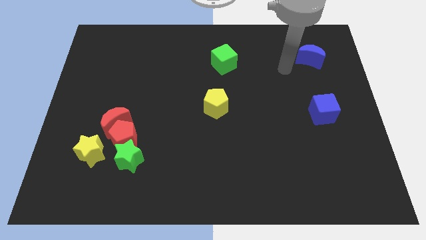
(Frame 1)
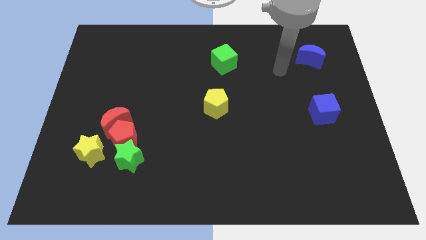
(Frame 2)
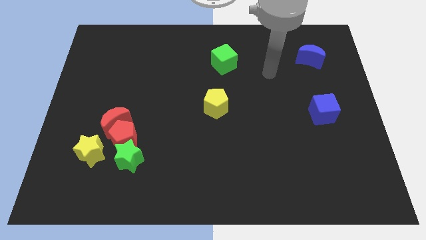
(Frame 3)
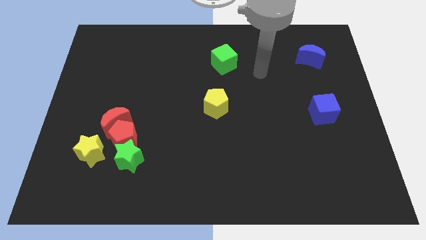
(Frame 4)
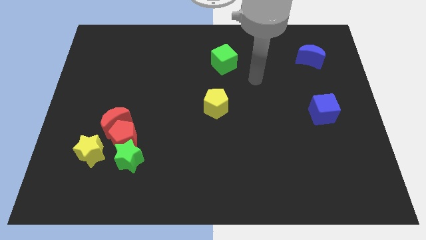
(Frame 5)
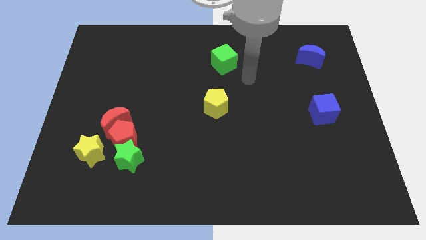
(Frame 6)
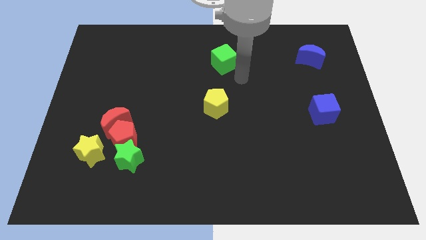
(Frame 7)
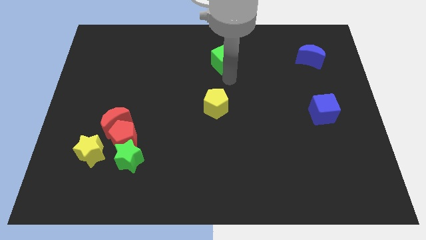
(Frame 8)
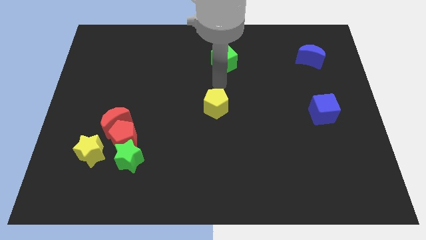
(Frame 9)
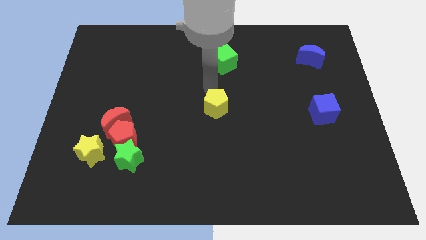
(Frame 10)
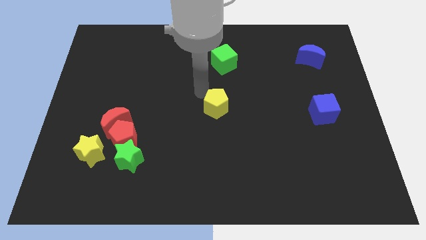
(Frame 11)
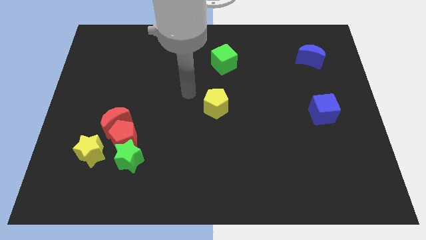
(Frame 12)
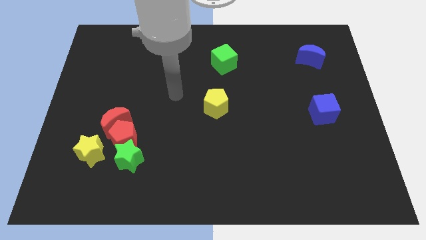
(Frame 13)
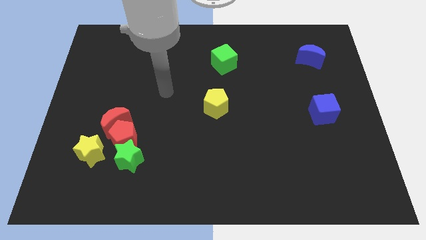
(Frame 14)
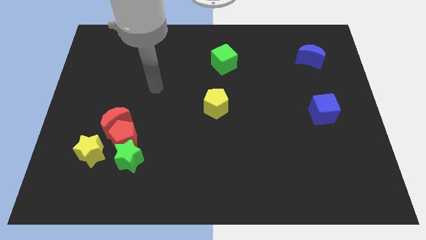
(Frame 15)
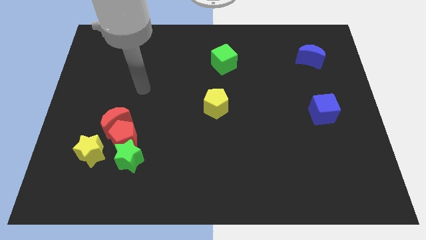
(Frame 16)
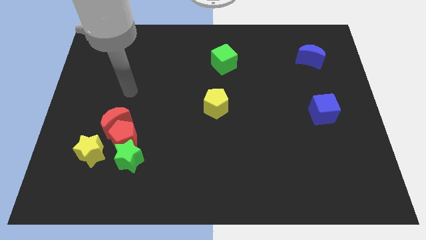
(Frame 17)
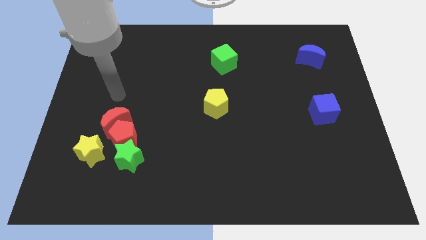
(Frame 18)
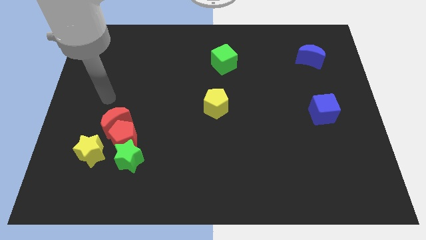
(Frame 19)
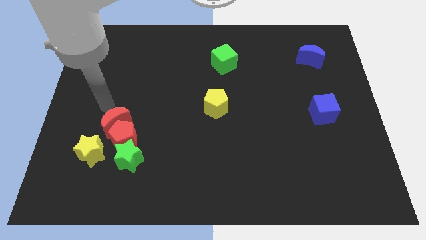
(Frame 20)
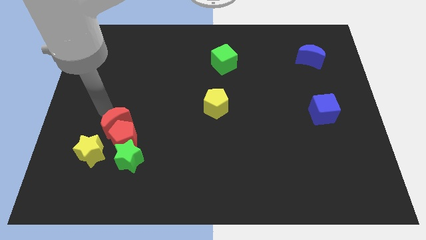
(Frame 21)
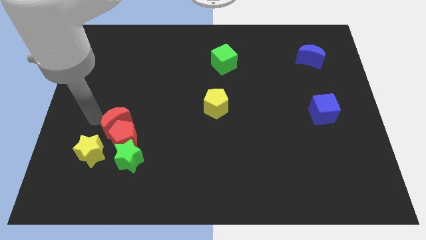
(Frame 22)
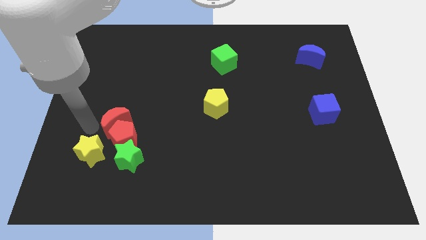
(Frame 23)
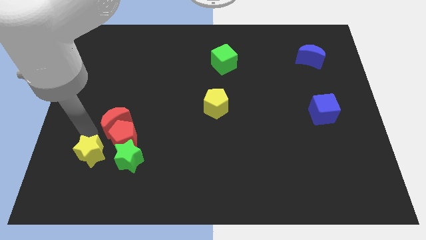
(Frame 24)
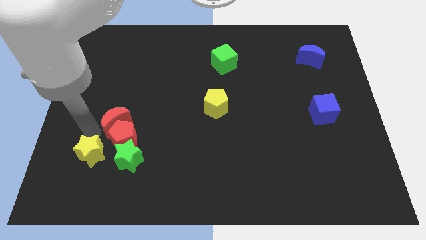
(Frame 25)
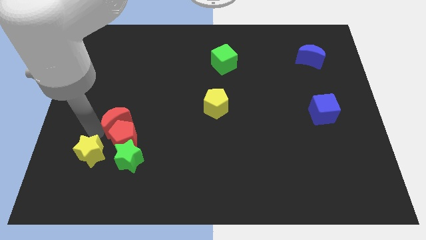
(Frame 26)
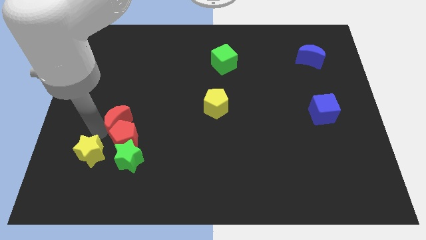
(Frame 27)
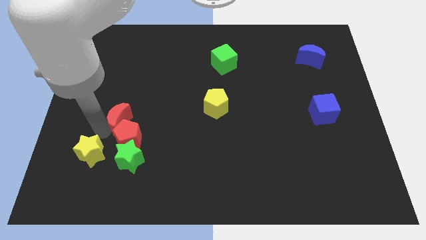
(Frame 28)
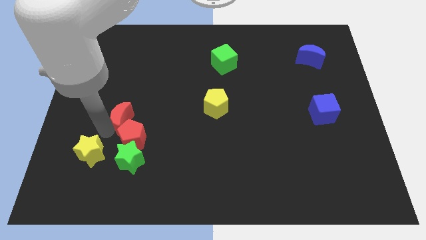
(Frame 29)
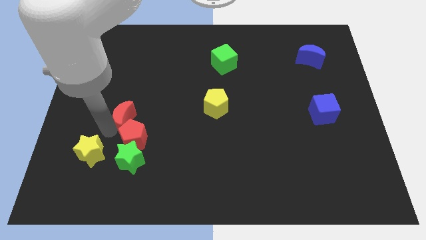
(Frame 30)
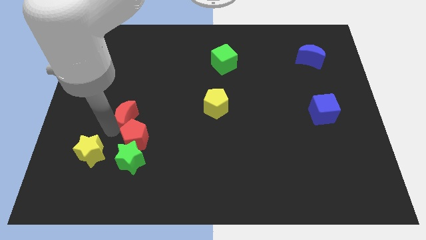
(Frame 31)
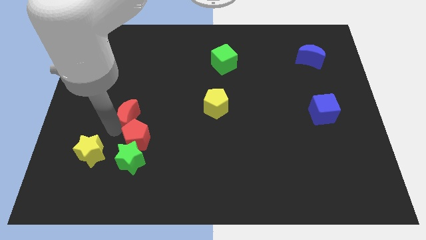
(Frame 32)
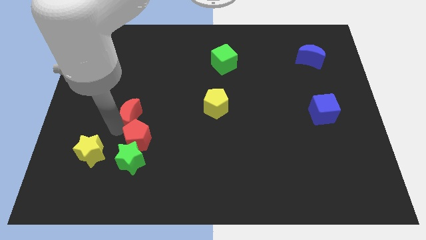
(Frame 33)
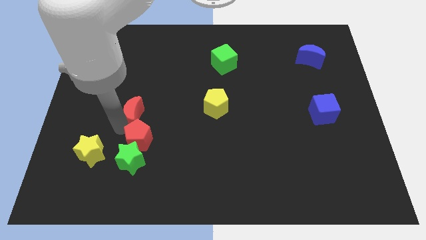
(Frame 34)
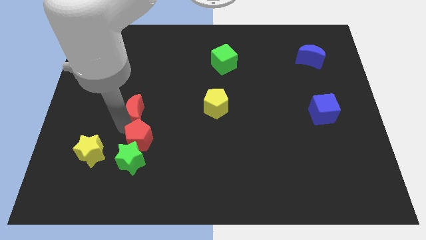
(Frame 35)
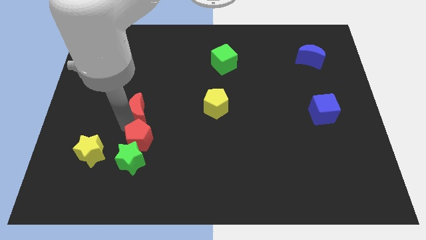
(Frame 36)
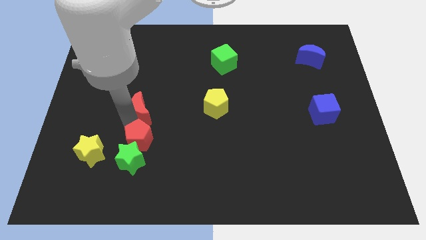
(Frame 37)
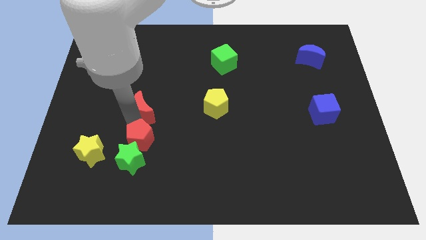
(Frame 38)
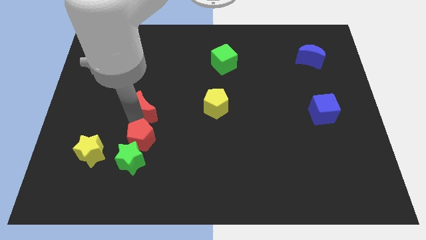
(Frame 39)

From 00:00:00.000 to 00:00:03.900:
move the red moon up and then right somewhat

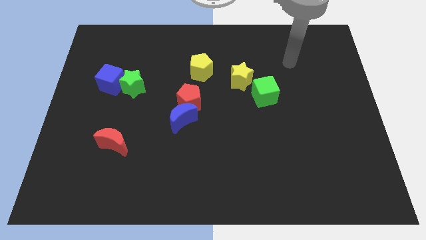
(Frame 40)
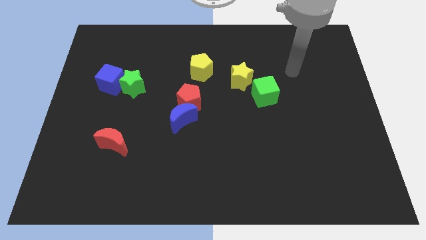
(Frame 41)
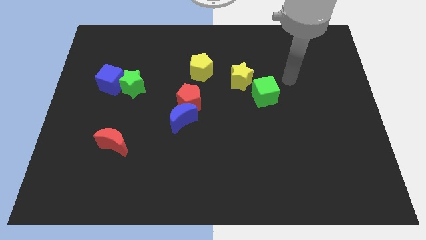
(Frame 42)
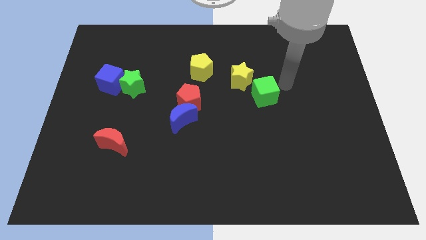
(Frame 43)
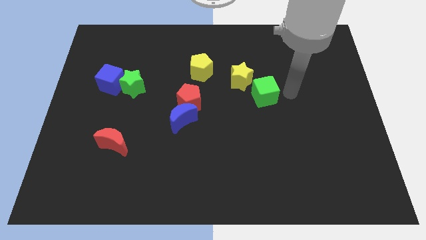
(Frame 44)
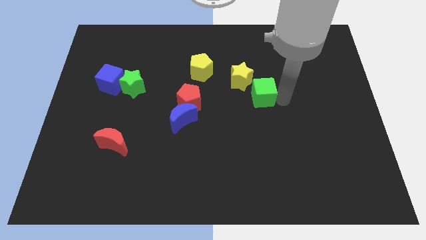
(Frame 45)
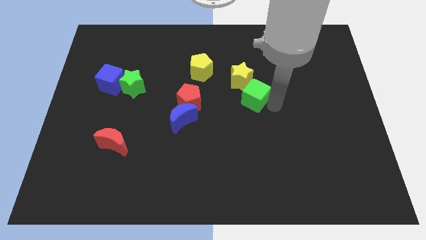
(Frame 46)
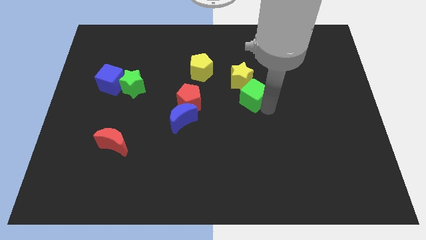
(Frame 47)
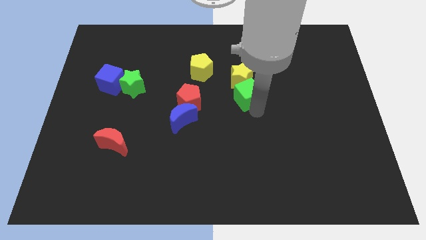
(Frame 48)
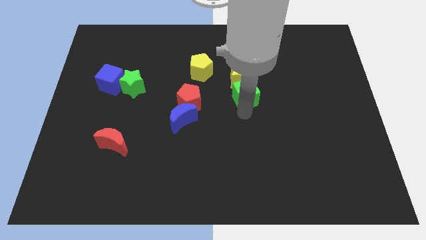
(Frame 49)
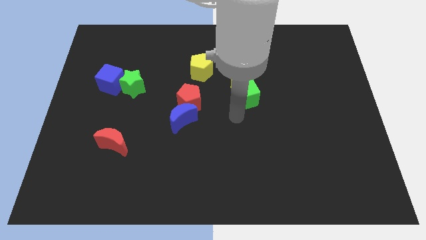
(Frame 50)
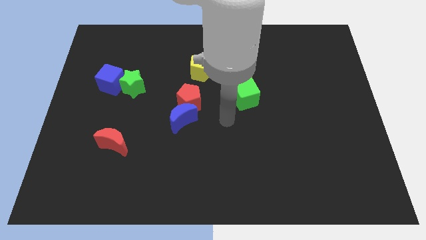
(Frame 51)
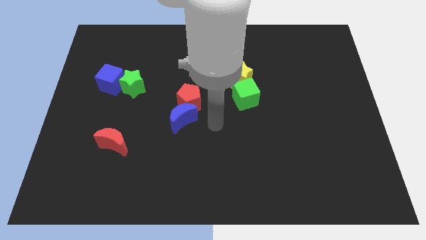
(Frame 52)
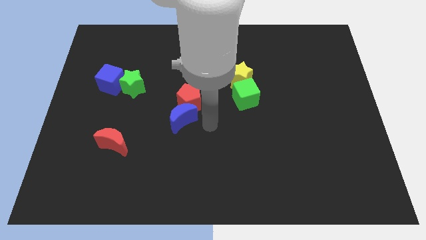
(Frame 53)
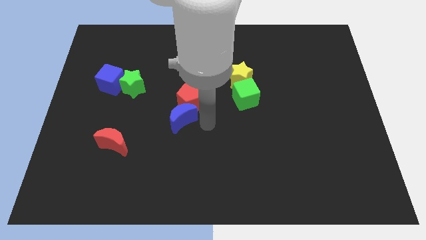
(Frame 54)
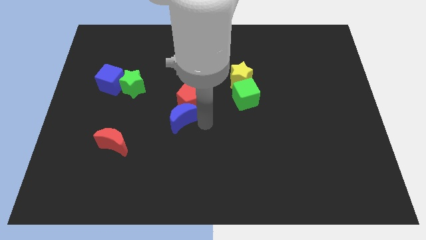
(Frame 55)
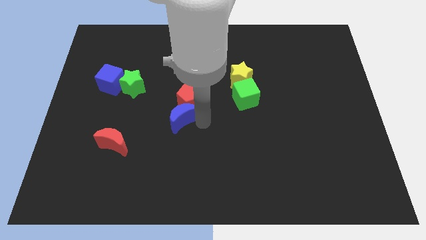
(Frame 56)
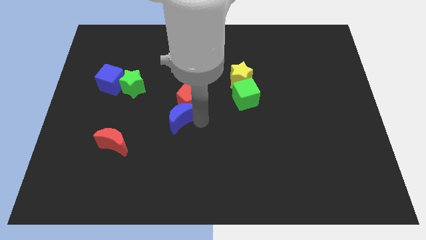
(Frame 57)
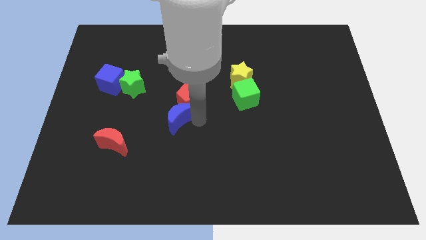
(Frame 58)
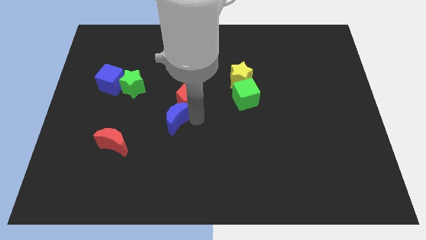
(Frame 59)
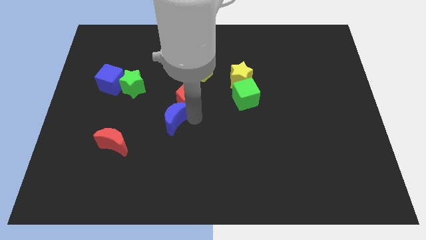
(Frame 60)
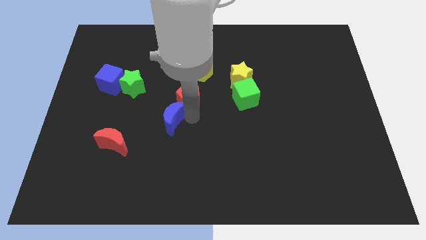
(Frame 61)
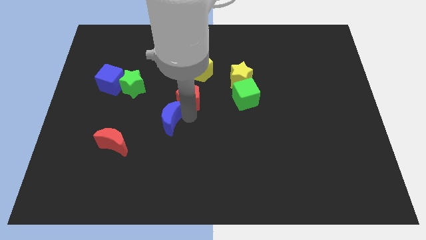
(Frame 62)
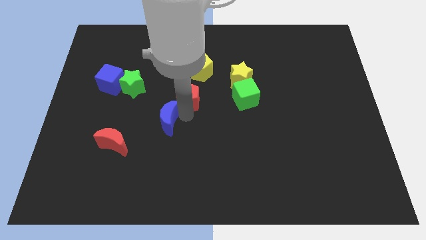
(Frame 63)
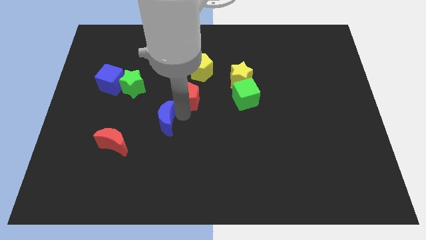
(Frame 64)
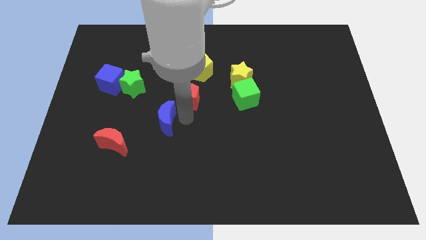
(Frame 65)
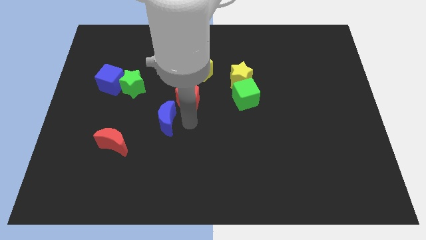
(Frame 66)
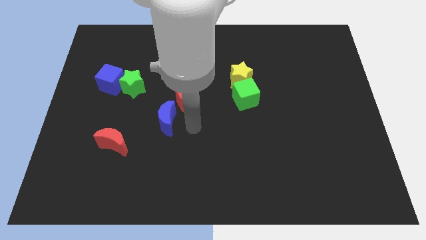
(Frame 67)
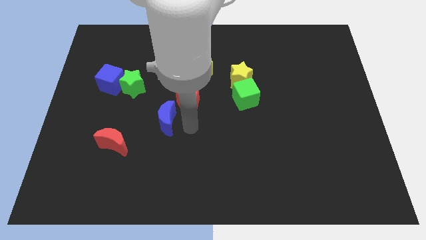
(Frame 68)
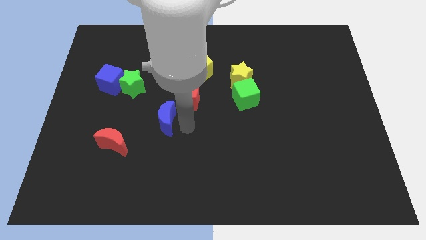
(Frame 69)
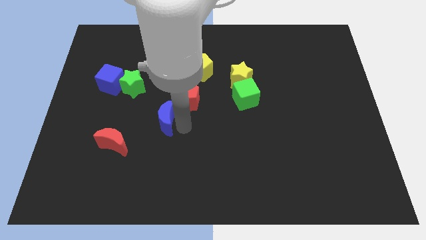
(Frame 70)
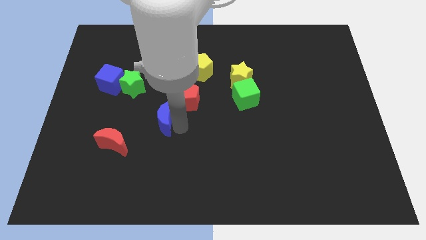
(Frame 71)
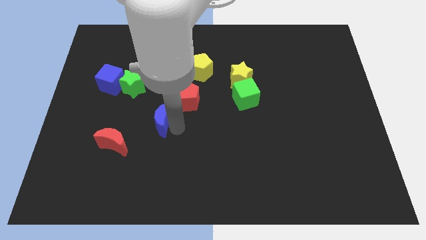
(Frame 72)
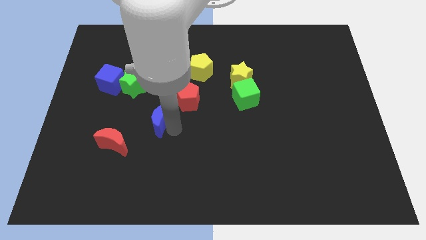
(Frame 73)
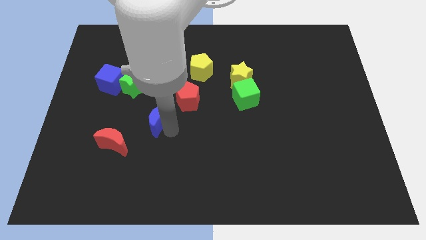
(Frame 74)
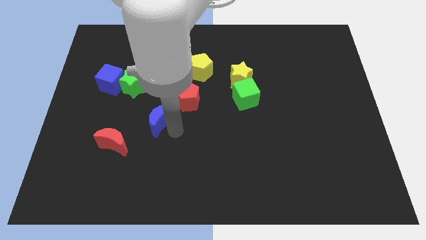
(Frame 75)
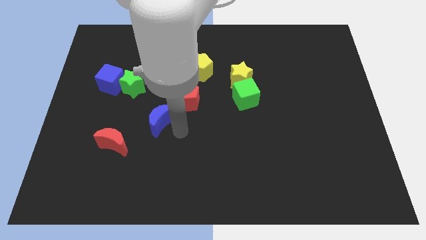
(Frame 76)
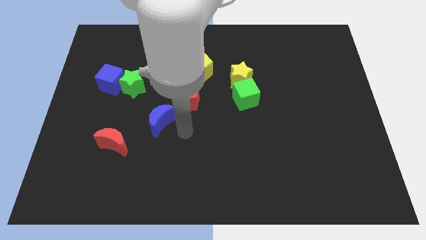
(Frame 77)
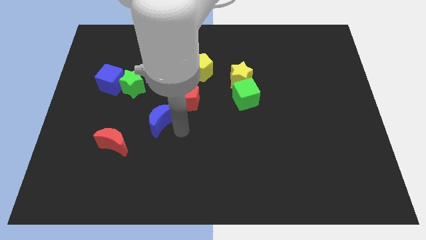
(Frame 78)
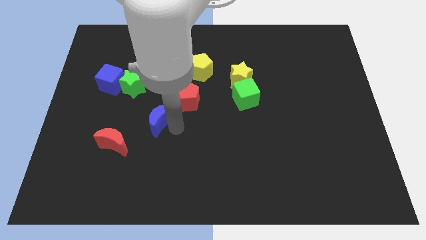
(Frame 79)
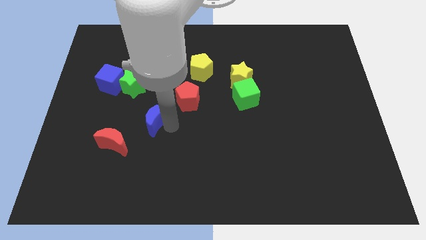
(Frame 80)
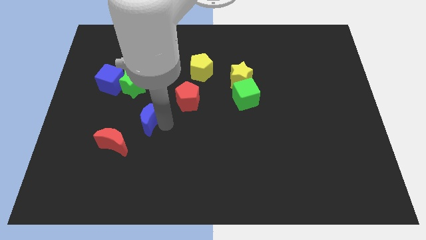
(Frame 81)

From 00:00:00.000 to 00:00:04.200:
slide the blue moon to the left somewhat
